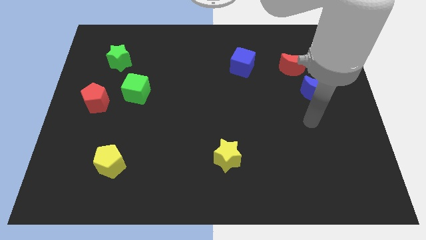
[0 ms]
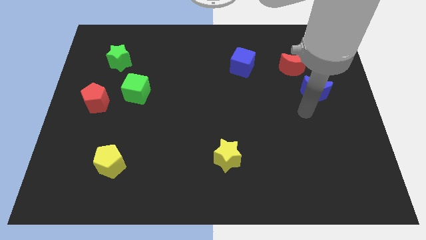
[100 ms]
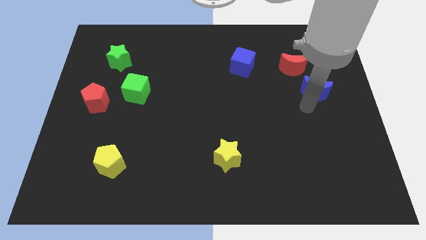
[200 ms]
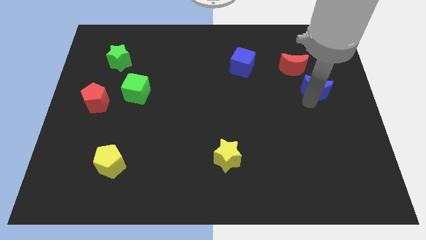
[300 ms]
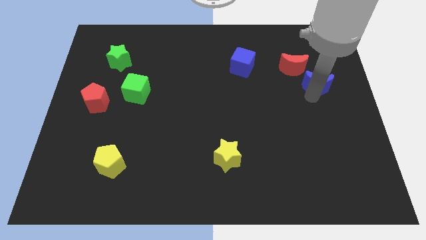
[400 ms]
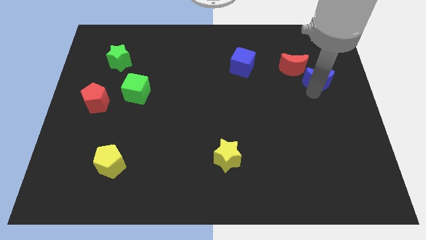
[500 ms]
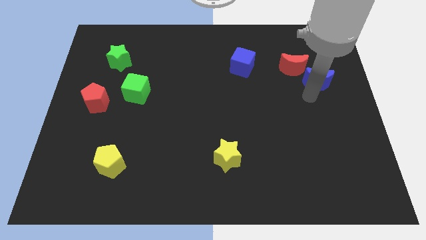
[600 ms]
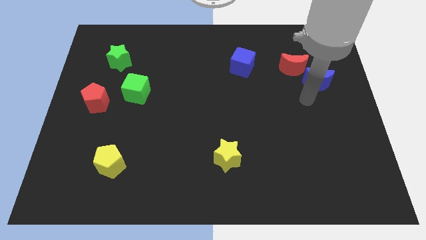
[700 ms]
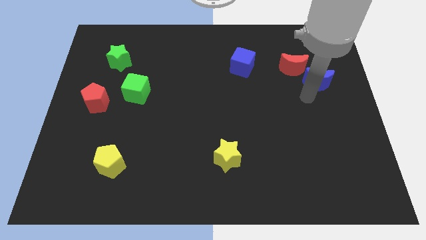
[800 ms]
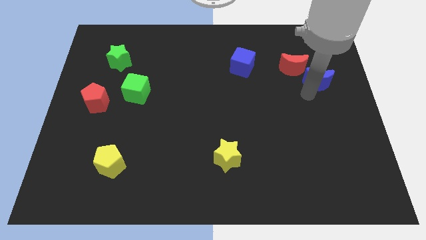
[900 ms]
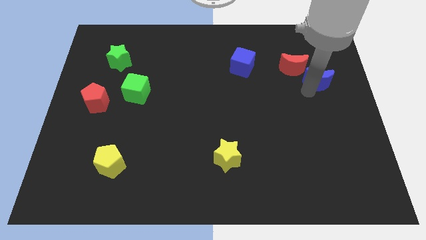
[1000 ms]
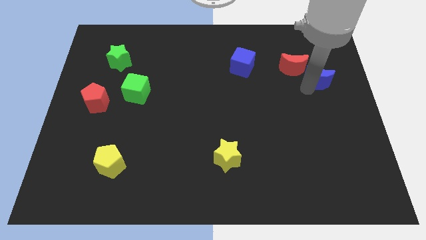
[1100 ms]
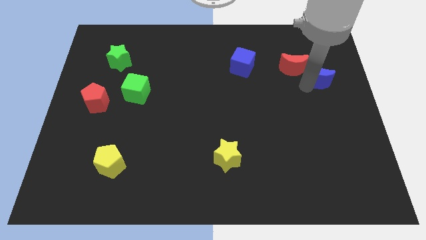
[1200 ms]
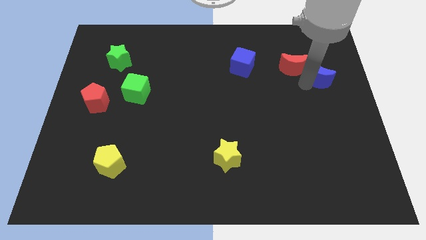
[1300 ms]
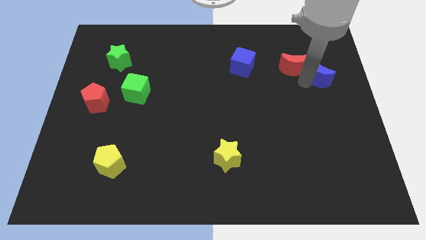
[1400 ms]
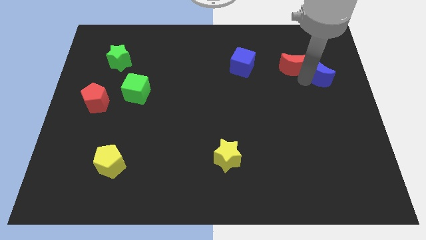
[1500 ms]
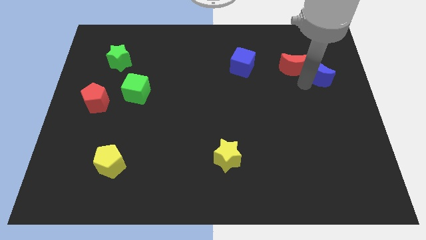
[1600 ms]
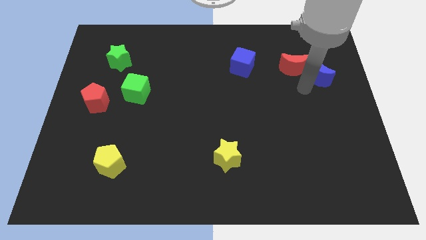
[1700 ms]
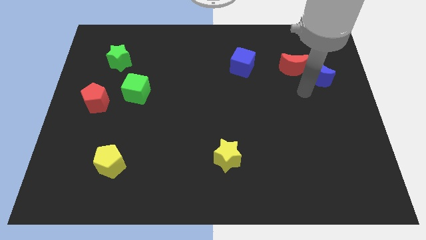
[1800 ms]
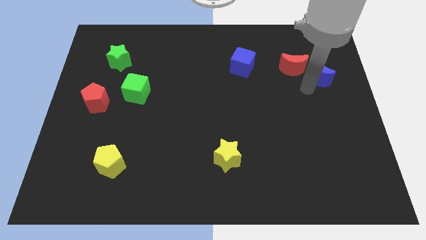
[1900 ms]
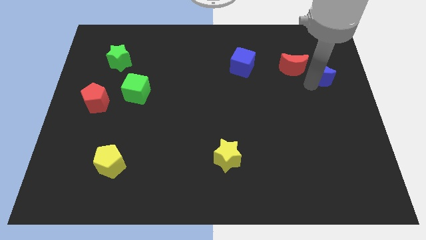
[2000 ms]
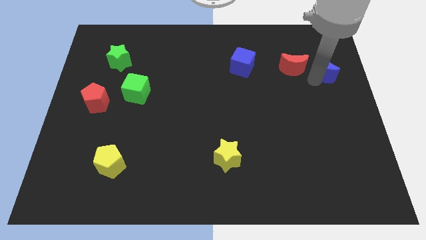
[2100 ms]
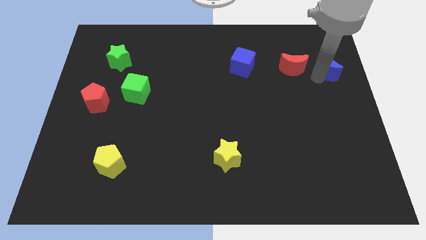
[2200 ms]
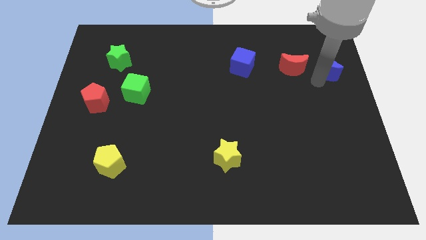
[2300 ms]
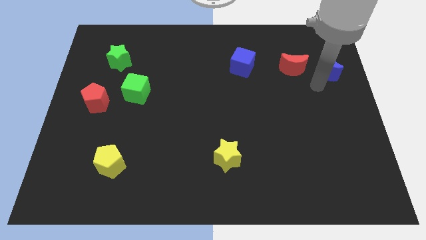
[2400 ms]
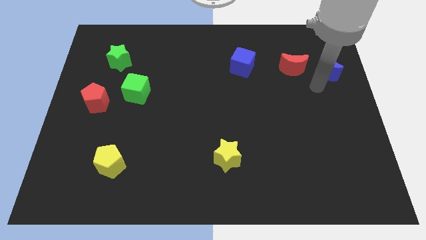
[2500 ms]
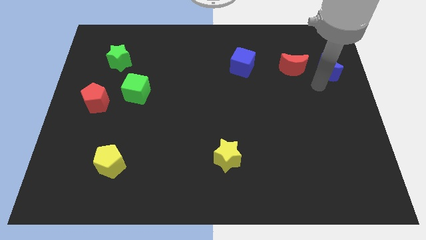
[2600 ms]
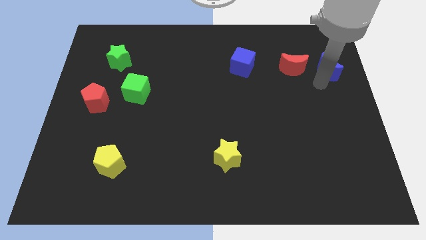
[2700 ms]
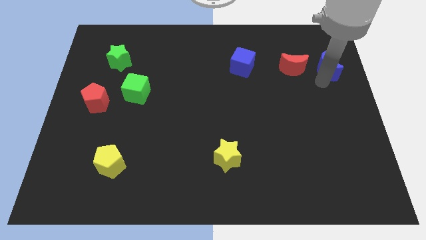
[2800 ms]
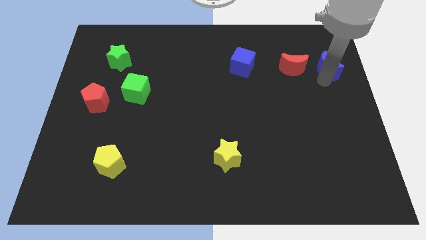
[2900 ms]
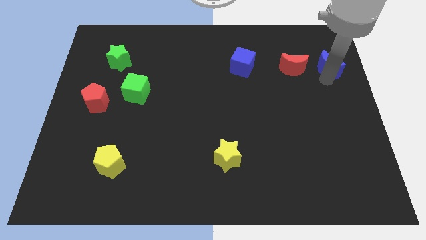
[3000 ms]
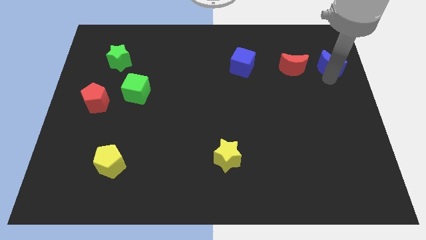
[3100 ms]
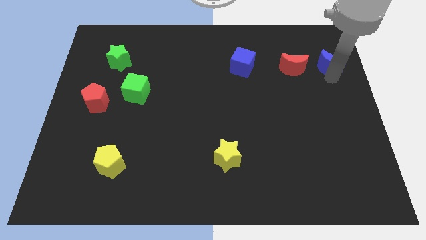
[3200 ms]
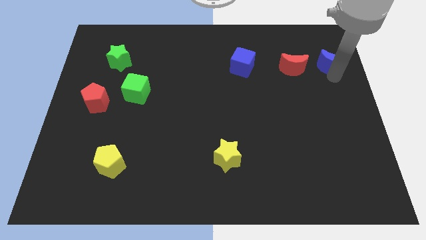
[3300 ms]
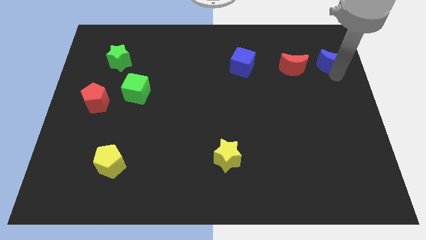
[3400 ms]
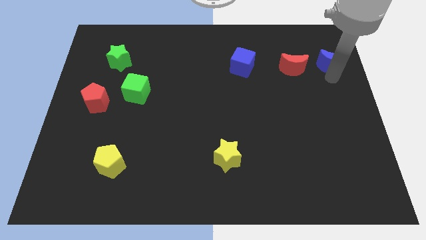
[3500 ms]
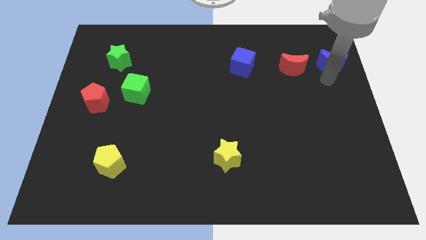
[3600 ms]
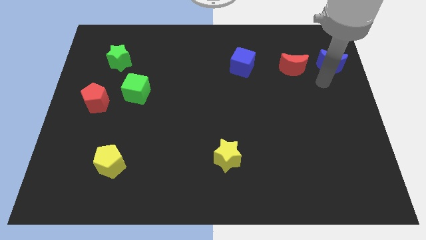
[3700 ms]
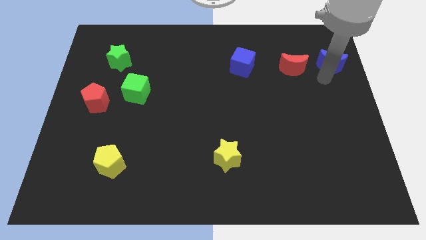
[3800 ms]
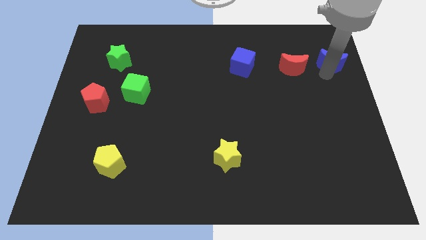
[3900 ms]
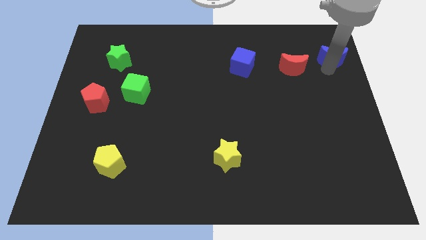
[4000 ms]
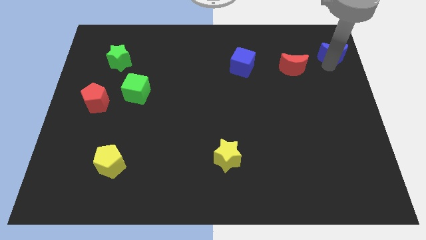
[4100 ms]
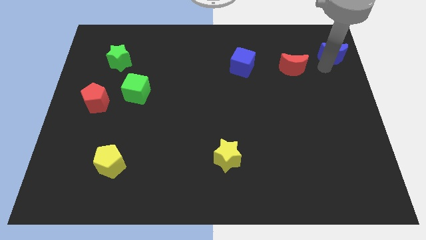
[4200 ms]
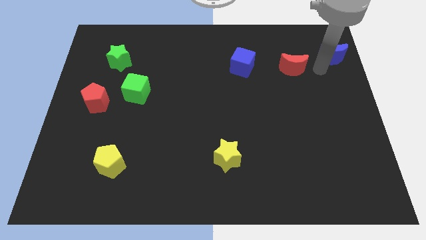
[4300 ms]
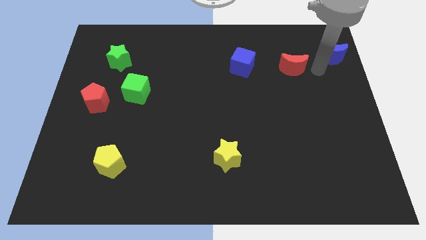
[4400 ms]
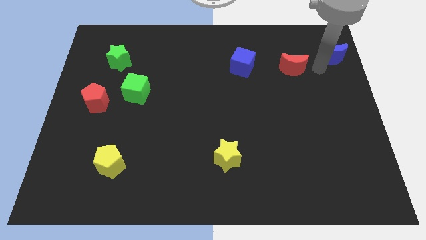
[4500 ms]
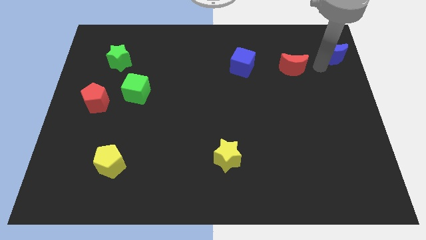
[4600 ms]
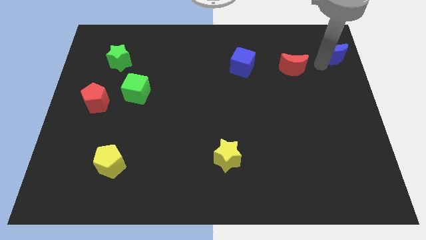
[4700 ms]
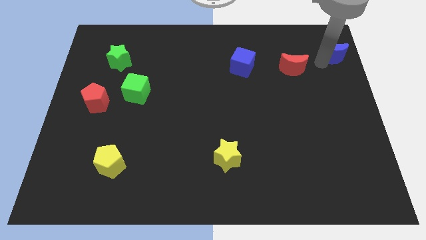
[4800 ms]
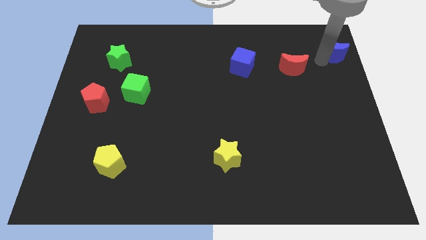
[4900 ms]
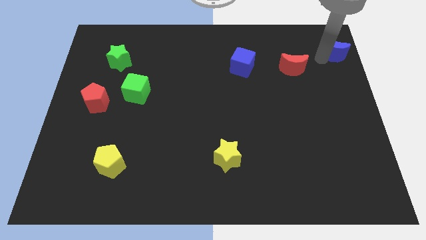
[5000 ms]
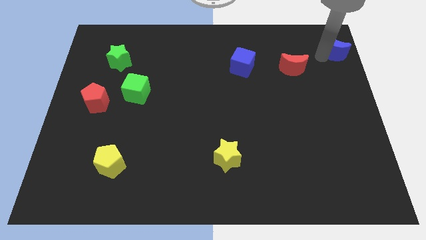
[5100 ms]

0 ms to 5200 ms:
move the blue moon to the top right

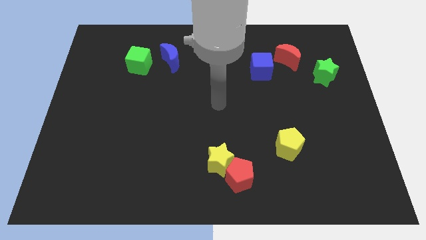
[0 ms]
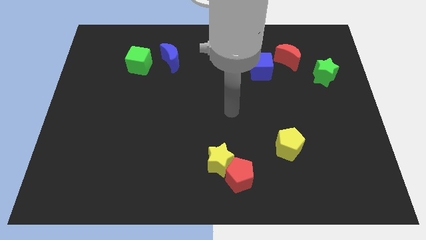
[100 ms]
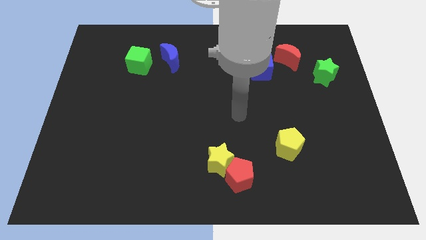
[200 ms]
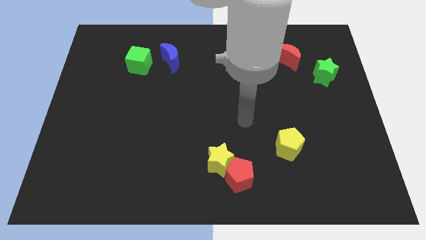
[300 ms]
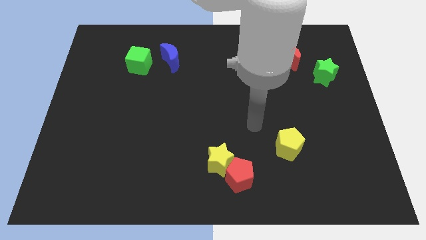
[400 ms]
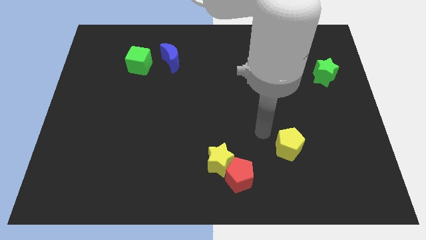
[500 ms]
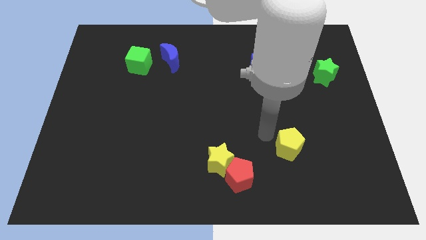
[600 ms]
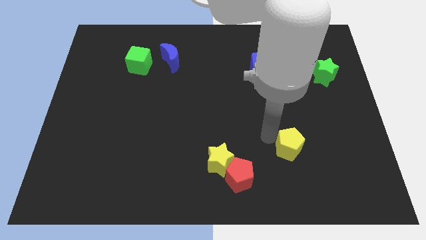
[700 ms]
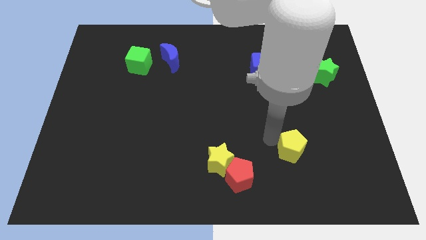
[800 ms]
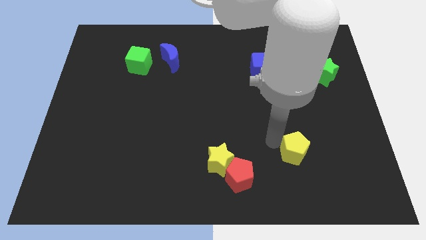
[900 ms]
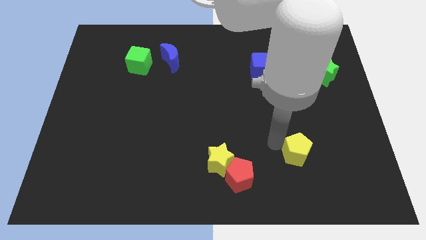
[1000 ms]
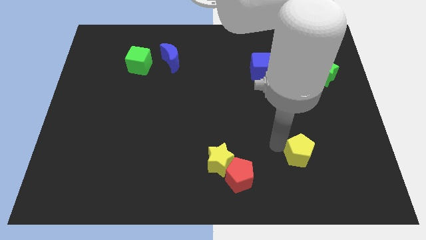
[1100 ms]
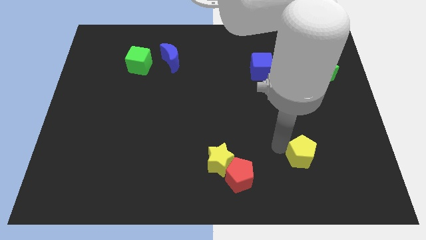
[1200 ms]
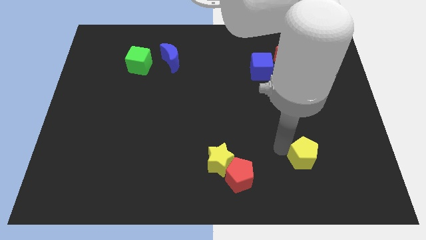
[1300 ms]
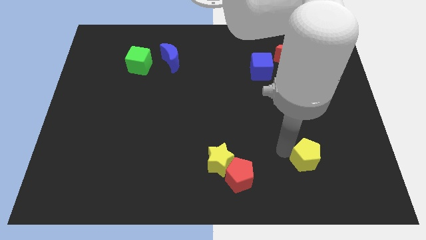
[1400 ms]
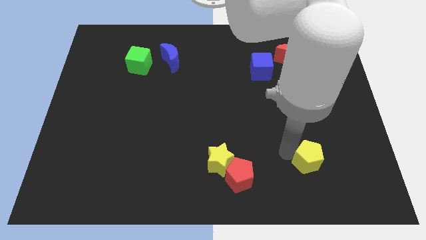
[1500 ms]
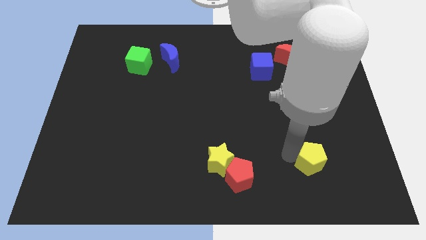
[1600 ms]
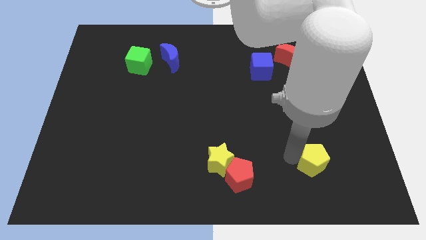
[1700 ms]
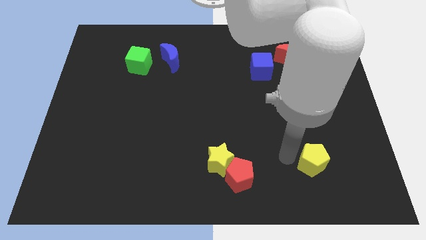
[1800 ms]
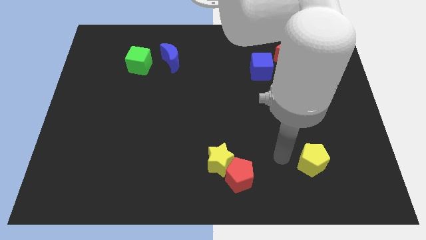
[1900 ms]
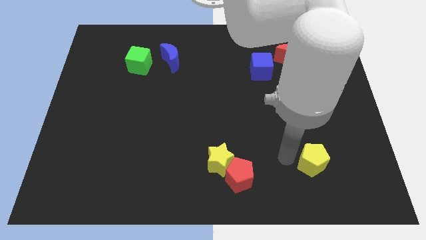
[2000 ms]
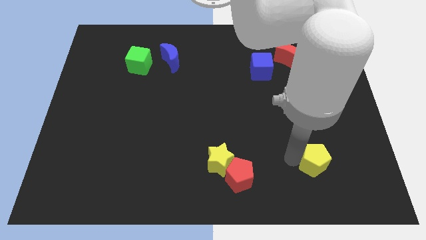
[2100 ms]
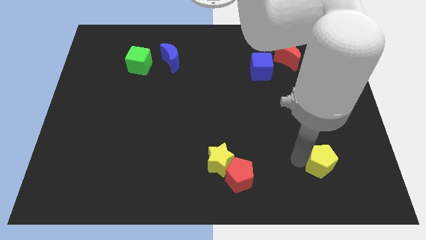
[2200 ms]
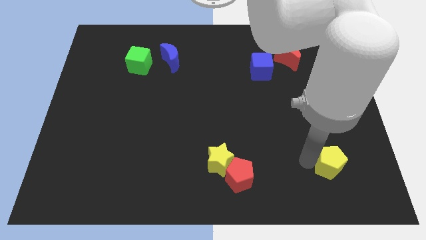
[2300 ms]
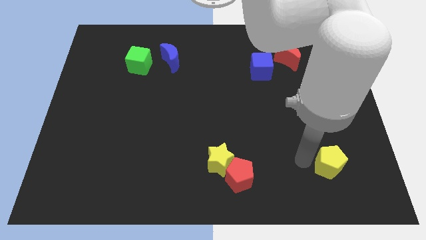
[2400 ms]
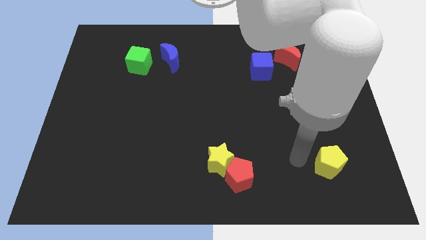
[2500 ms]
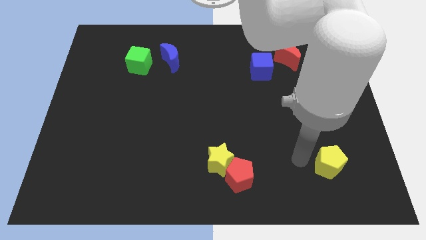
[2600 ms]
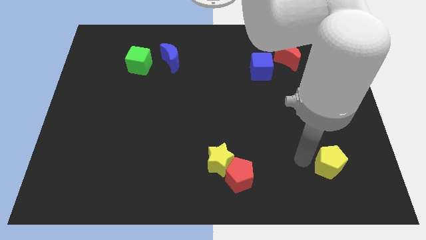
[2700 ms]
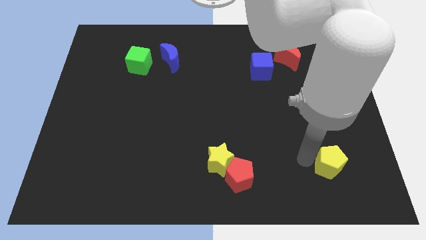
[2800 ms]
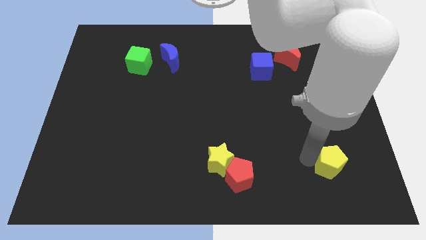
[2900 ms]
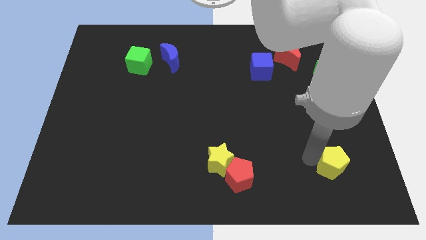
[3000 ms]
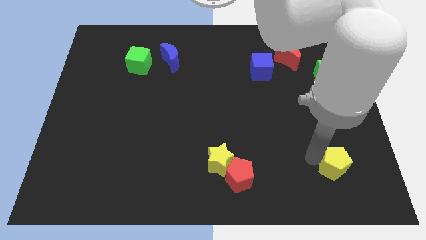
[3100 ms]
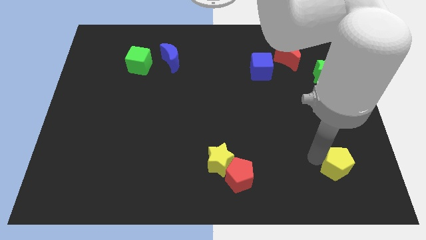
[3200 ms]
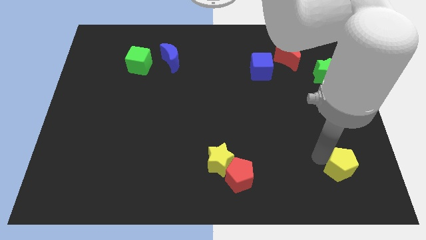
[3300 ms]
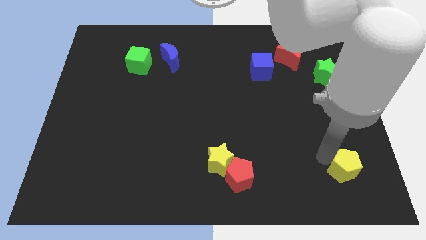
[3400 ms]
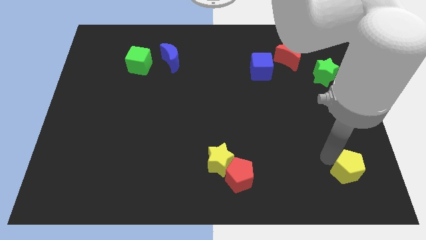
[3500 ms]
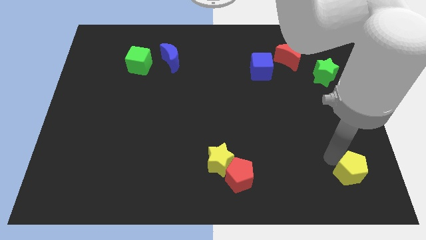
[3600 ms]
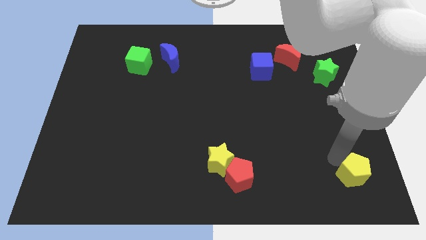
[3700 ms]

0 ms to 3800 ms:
push the yellow pentagon to the bottom right
